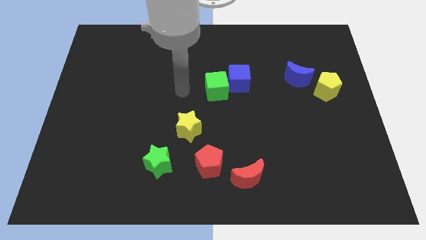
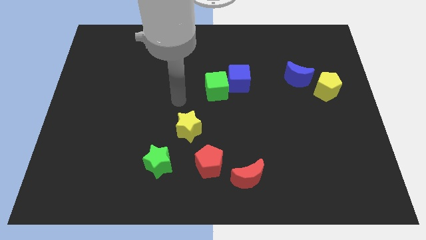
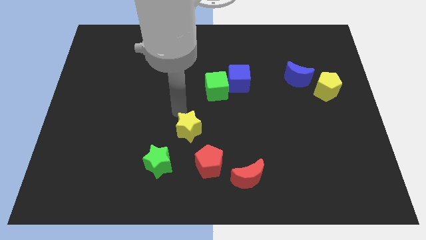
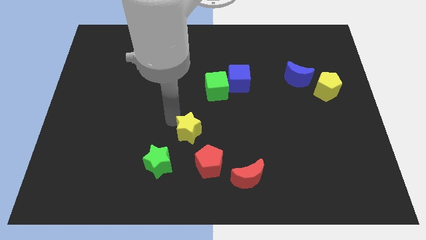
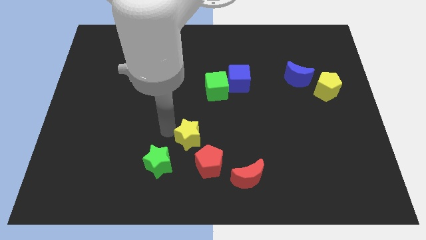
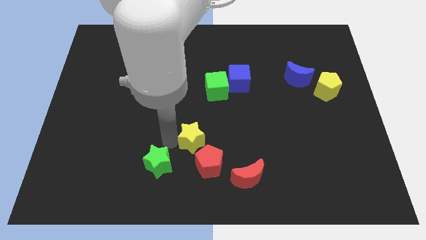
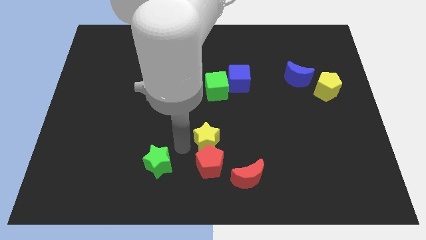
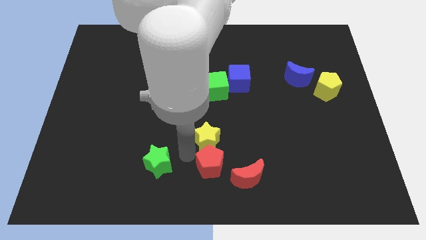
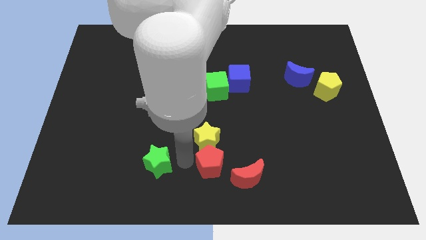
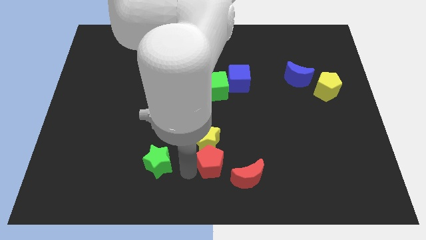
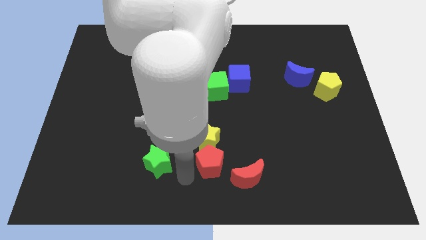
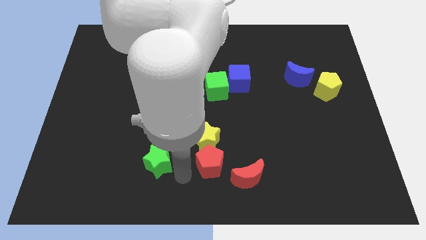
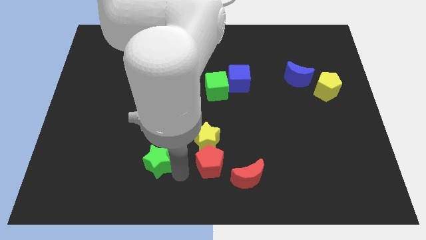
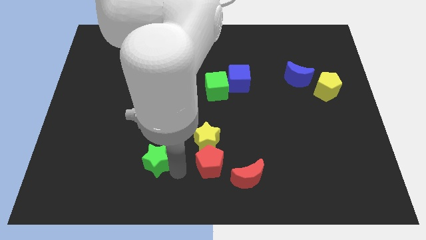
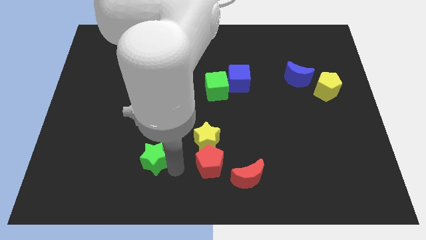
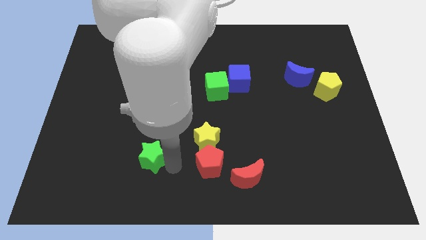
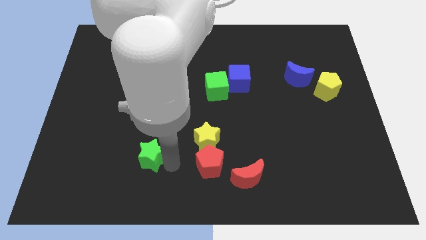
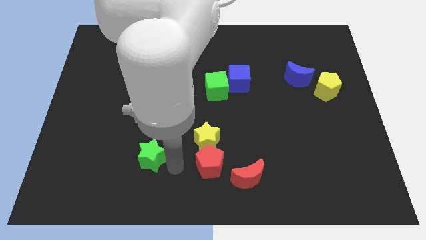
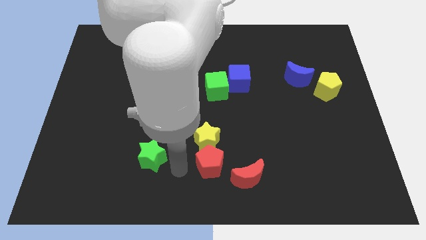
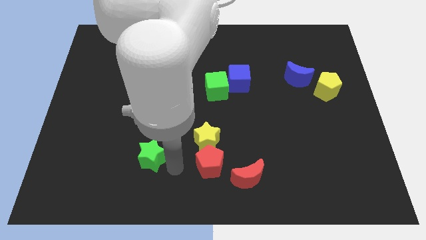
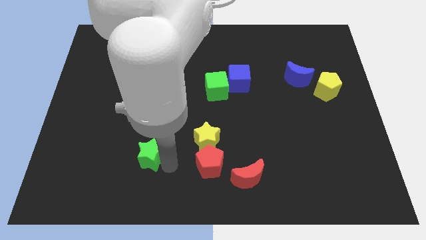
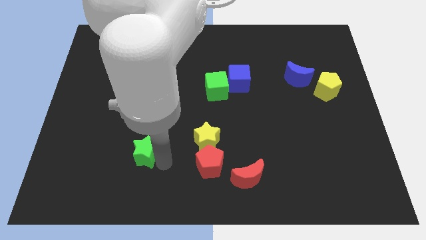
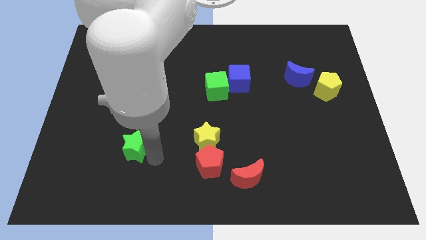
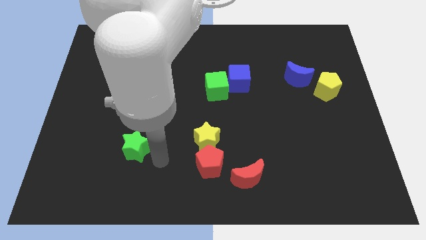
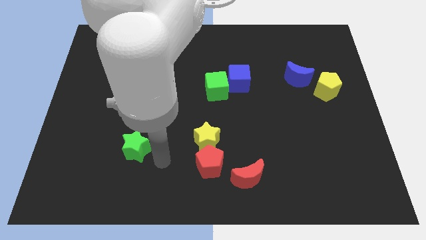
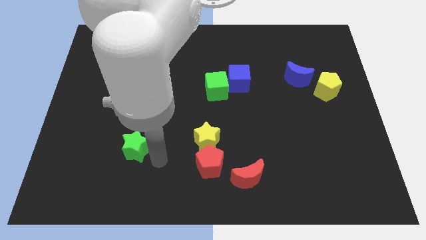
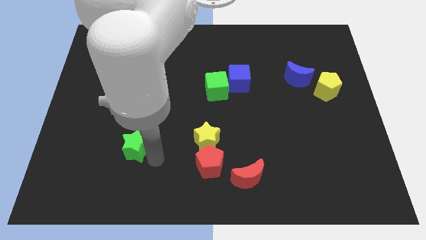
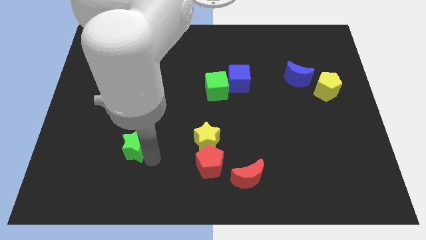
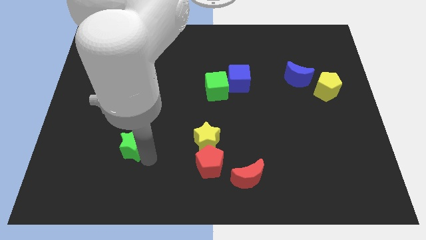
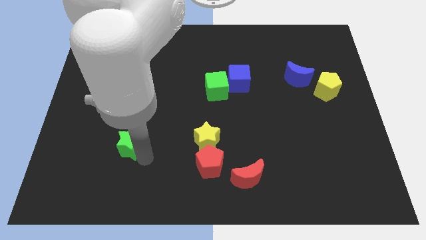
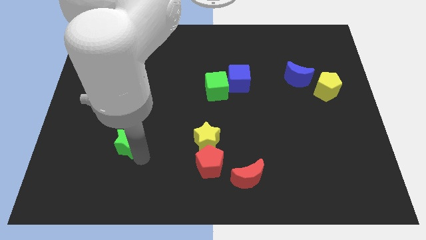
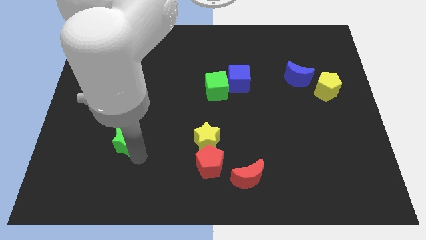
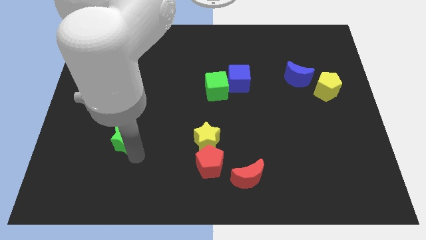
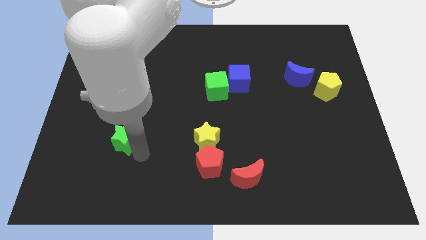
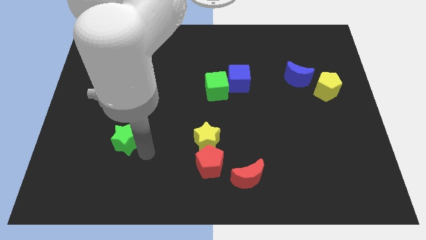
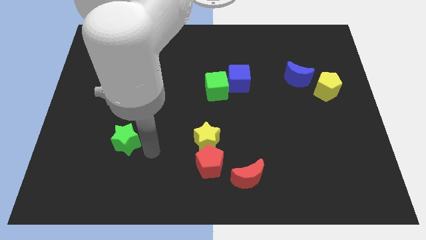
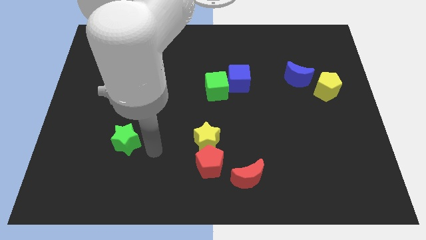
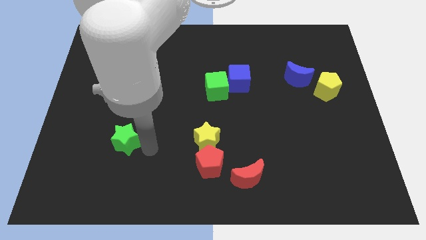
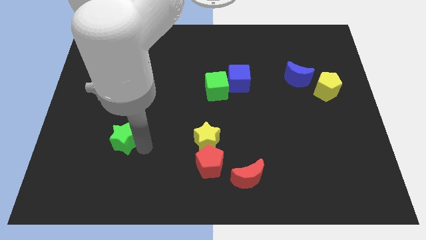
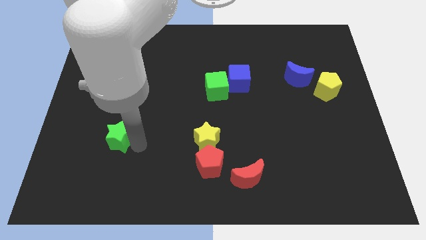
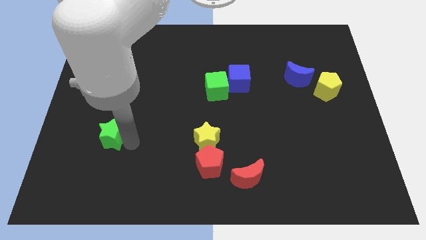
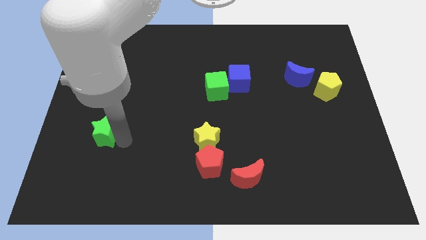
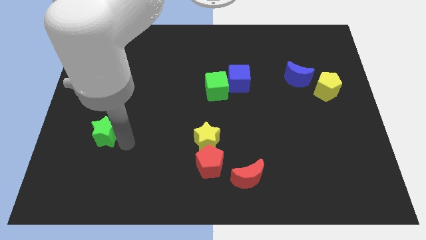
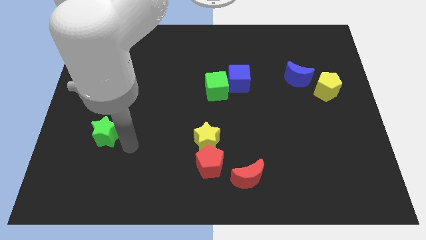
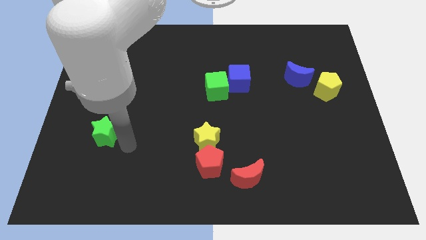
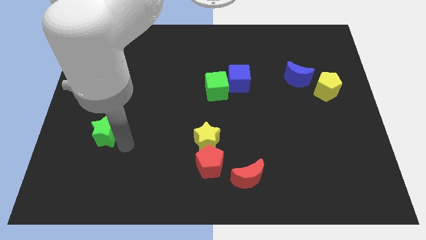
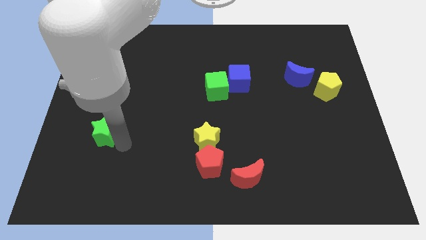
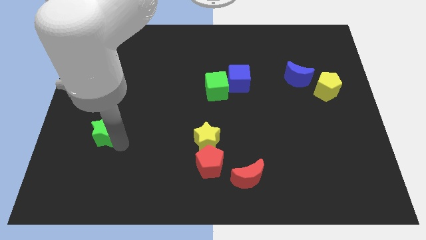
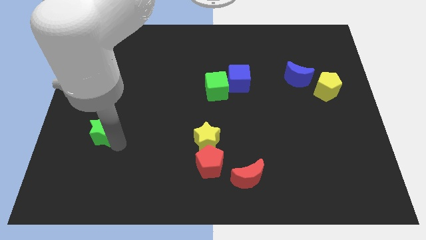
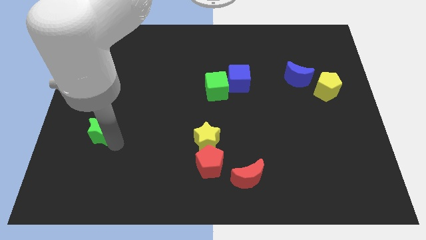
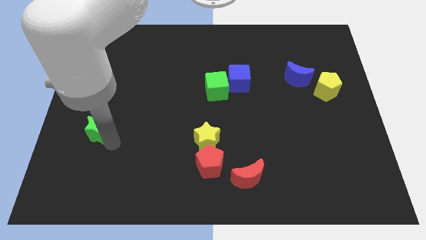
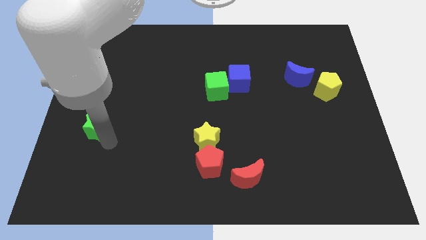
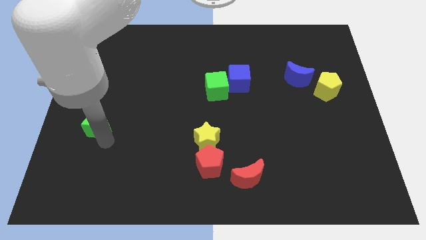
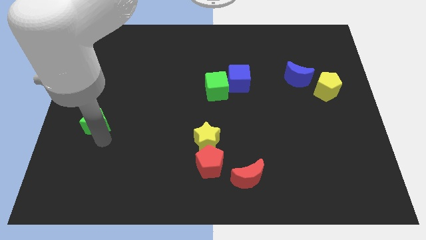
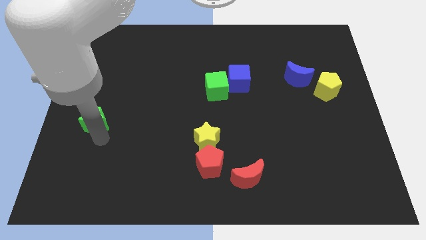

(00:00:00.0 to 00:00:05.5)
move the green star to the center left

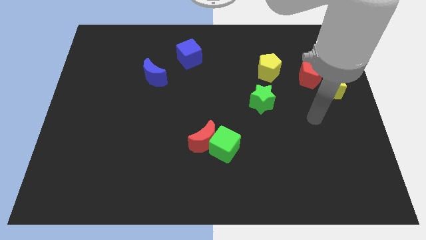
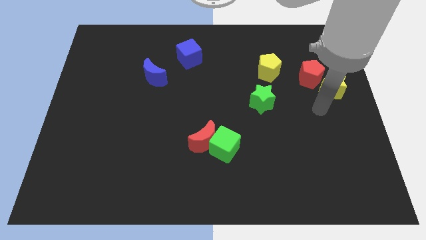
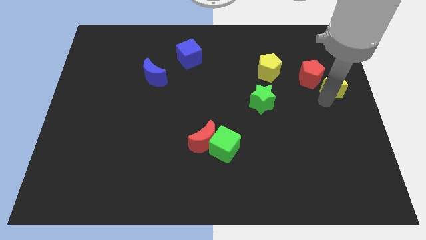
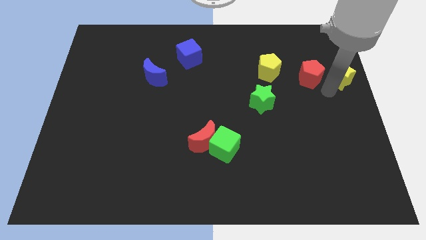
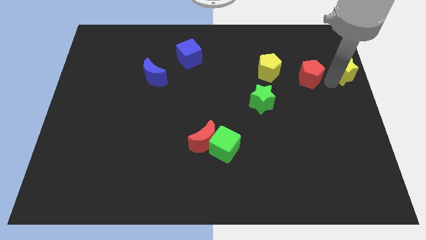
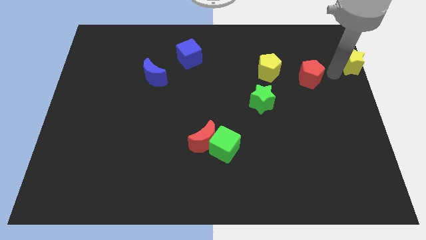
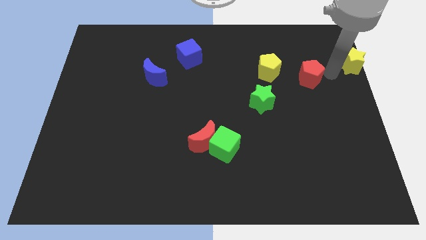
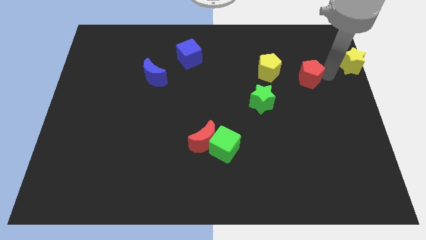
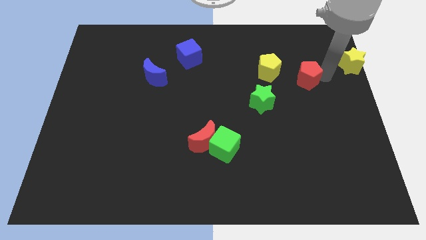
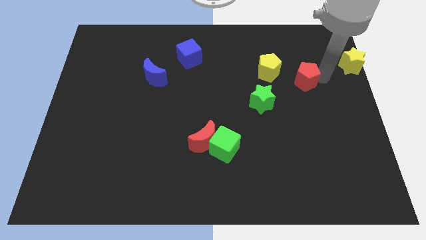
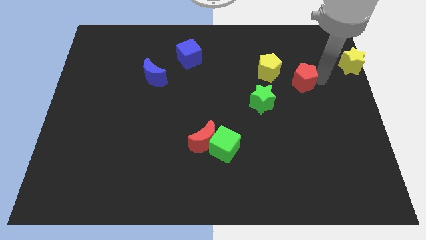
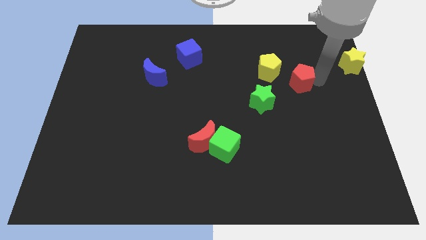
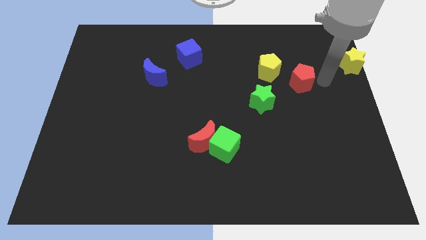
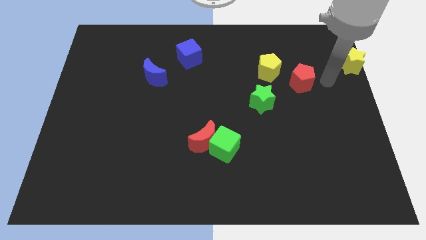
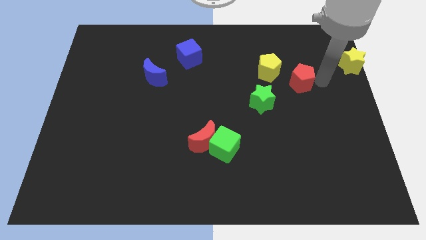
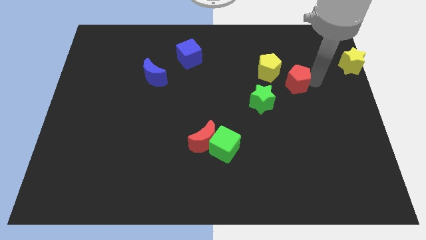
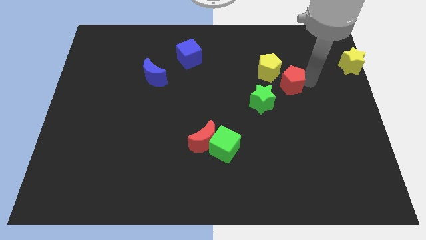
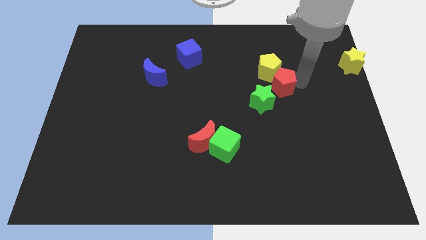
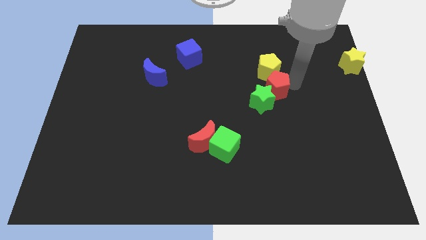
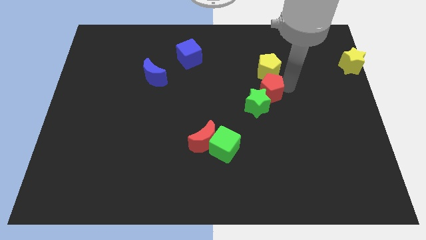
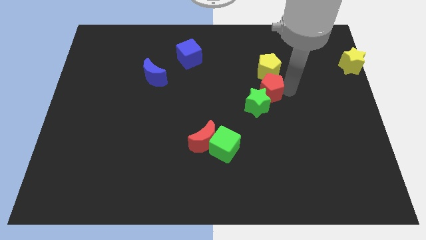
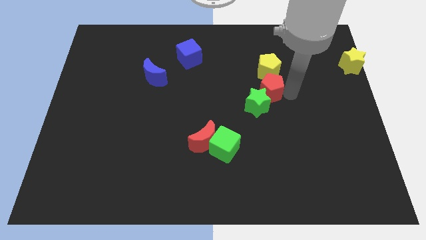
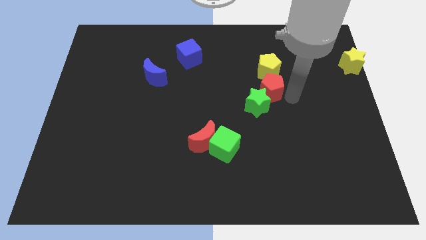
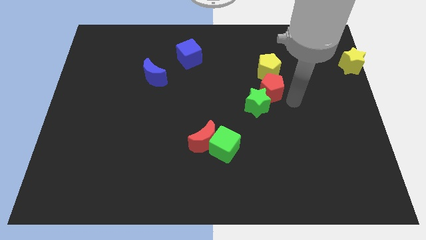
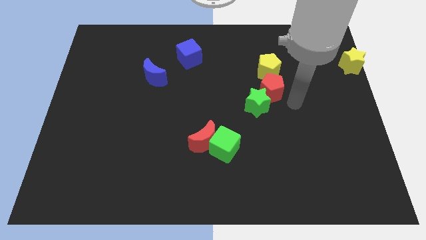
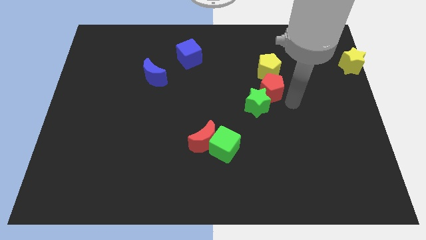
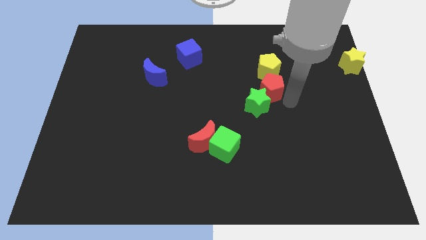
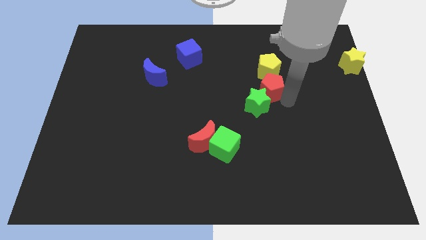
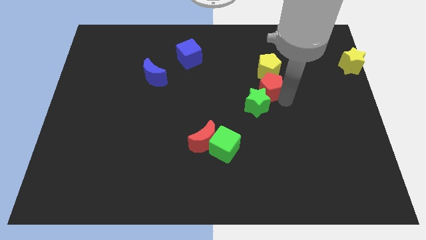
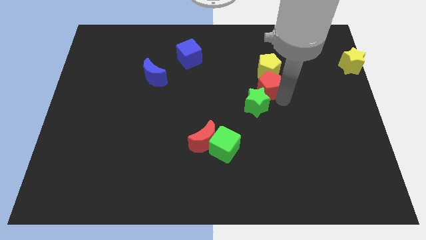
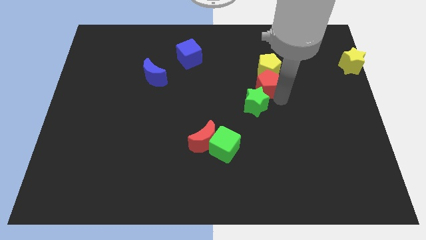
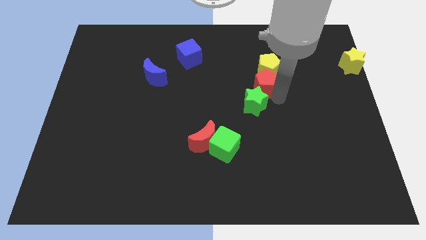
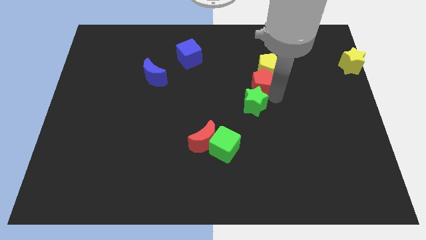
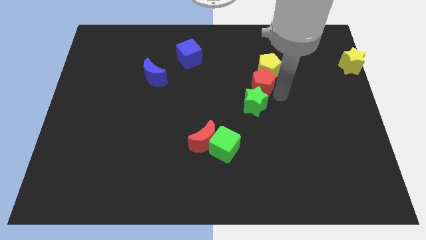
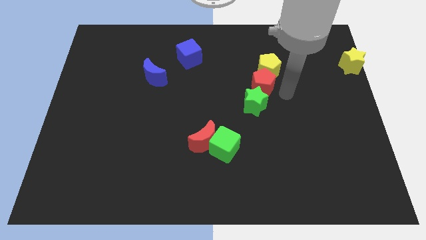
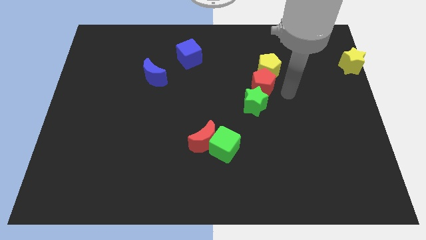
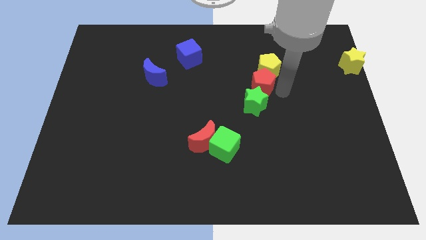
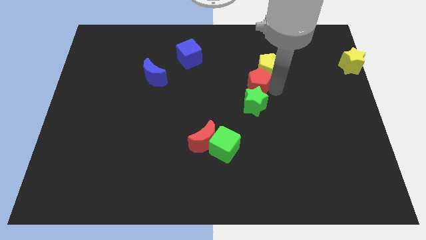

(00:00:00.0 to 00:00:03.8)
move the red pentagon to the center of the board
